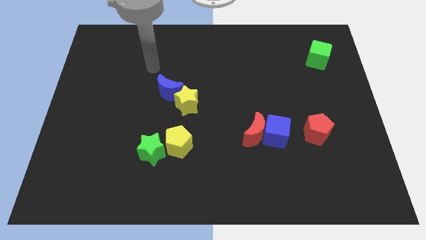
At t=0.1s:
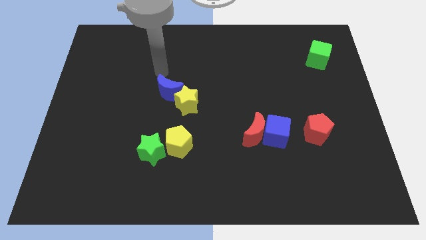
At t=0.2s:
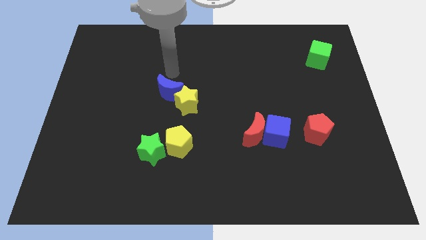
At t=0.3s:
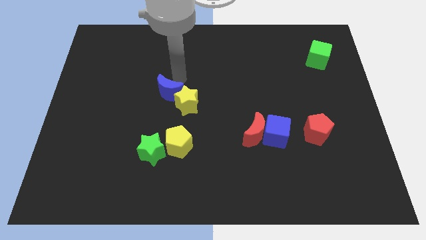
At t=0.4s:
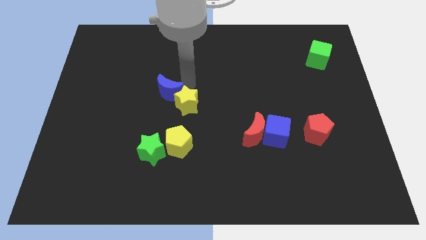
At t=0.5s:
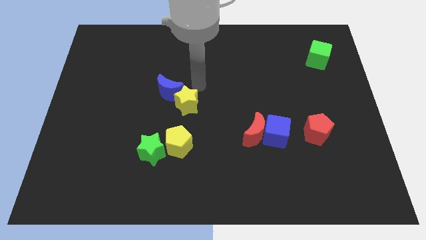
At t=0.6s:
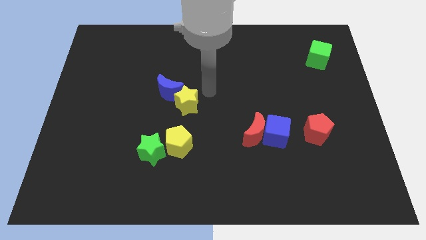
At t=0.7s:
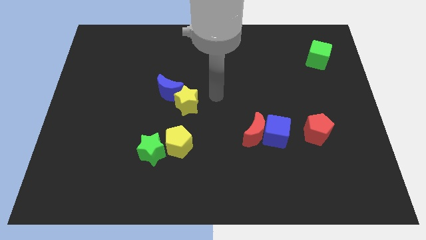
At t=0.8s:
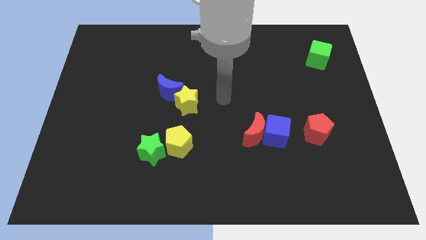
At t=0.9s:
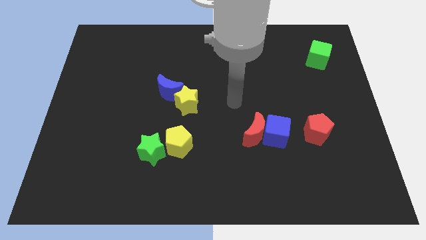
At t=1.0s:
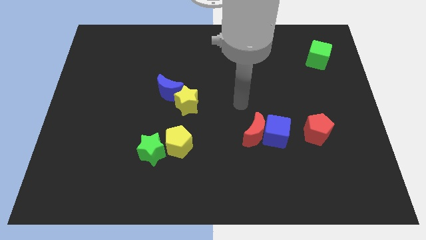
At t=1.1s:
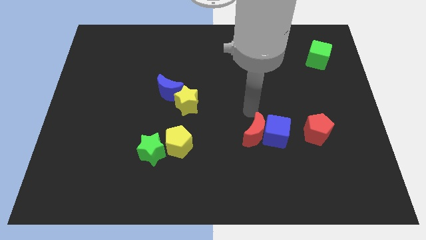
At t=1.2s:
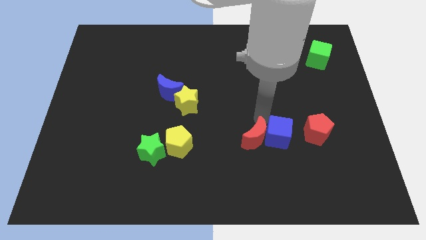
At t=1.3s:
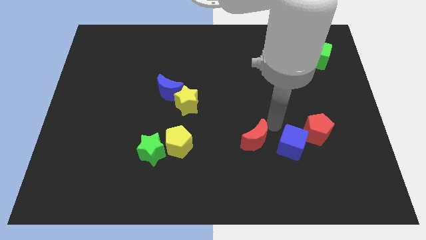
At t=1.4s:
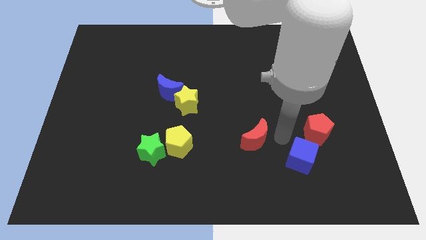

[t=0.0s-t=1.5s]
pull the red moon apart from the blue cube

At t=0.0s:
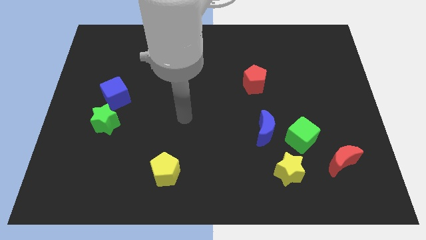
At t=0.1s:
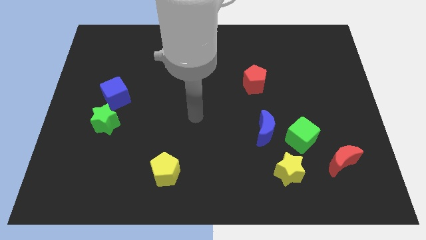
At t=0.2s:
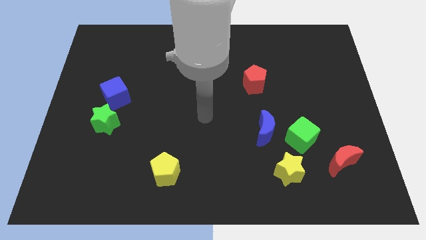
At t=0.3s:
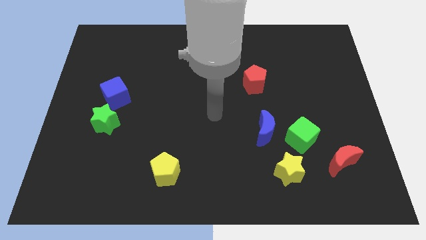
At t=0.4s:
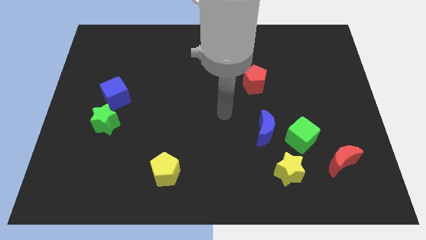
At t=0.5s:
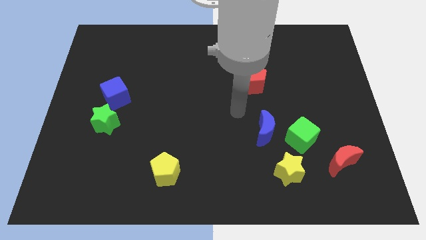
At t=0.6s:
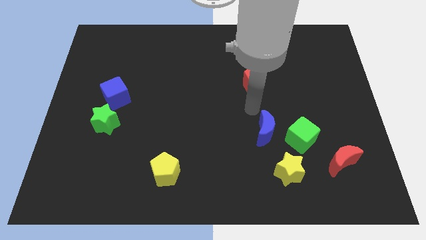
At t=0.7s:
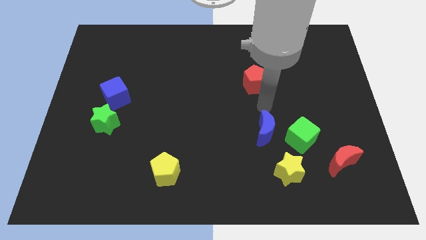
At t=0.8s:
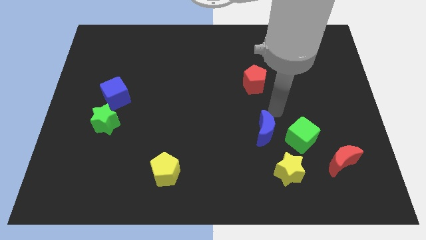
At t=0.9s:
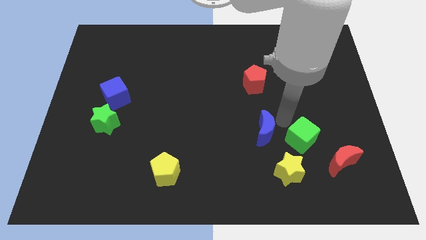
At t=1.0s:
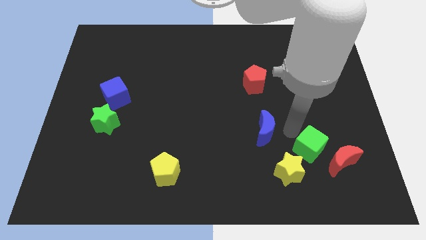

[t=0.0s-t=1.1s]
pull the blue moon apart from the green cube

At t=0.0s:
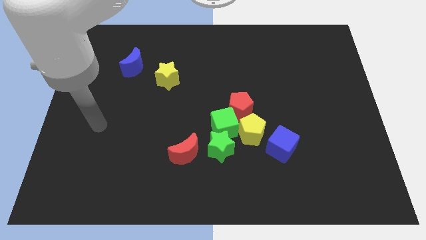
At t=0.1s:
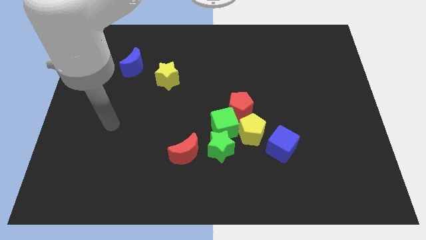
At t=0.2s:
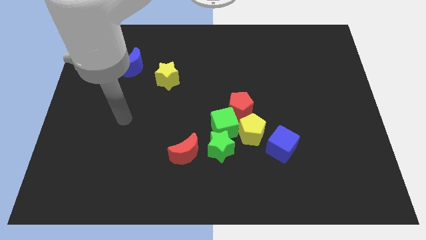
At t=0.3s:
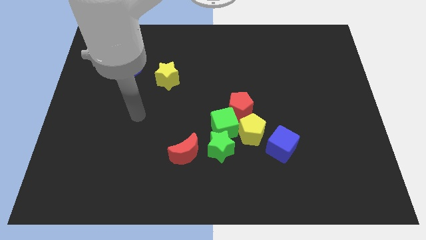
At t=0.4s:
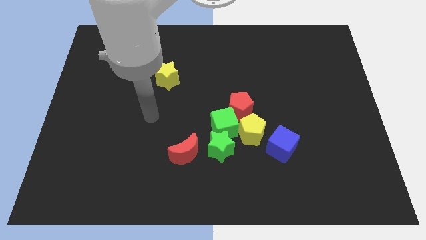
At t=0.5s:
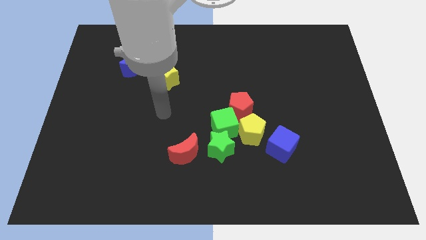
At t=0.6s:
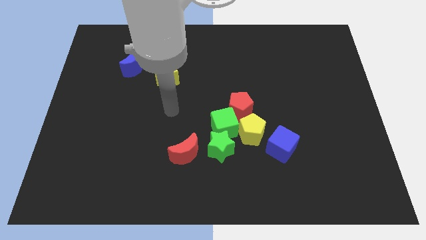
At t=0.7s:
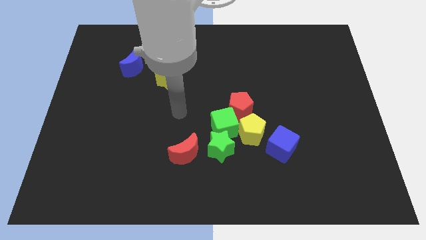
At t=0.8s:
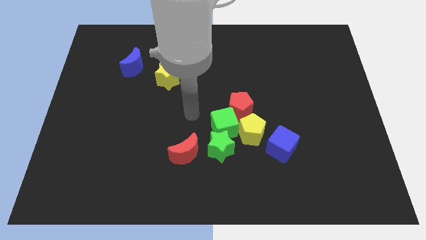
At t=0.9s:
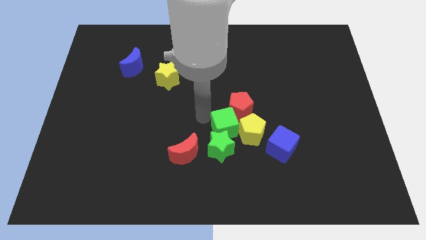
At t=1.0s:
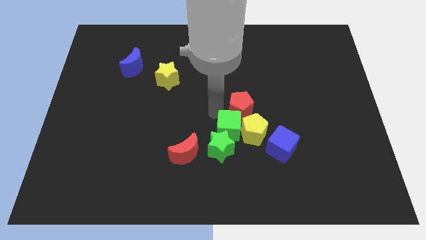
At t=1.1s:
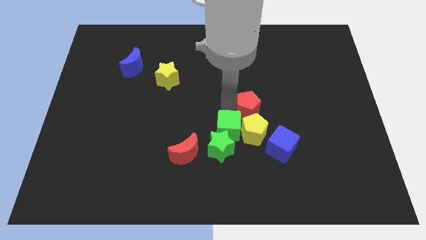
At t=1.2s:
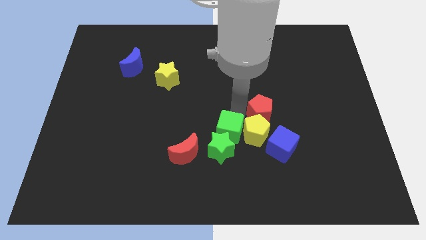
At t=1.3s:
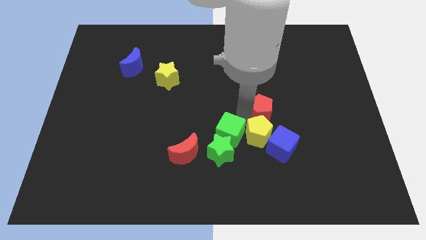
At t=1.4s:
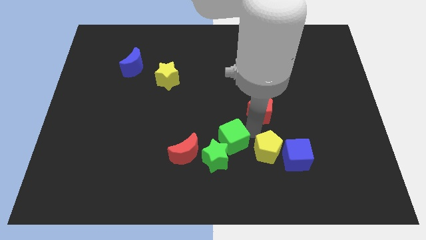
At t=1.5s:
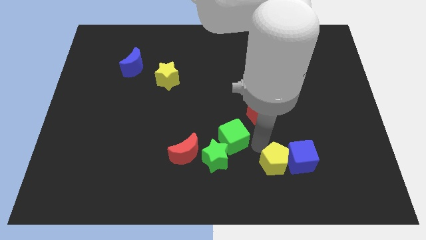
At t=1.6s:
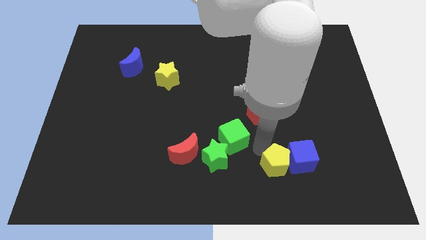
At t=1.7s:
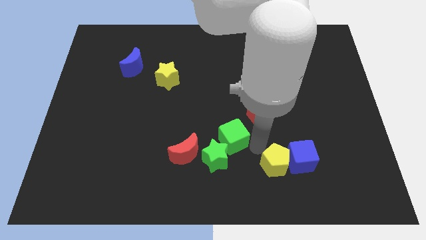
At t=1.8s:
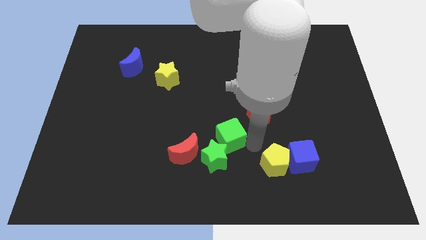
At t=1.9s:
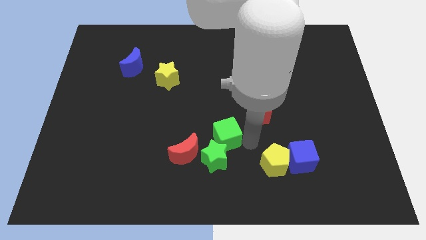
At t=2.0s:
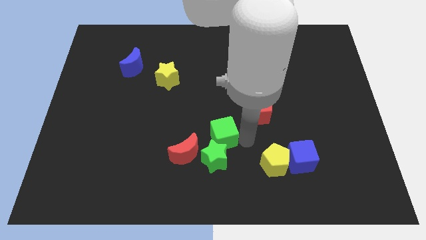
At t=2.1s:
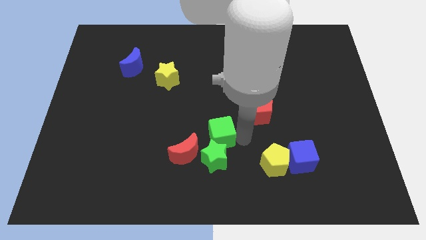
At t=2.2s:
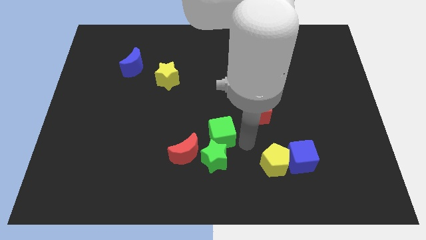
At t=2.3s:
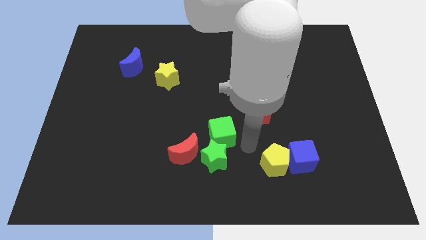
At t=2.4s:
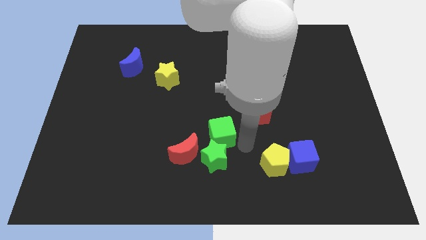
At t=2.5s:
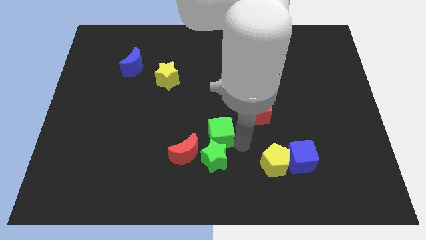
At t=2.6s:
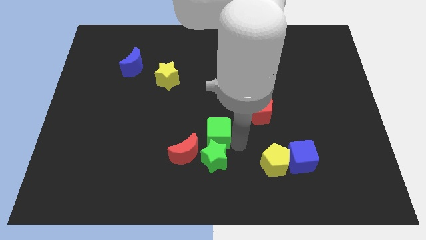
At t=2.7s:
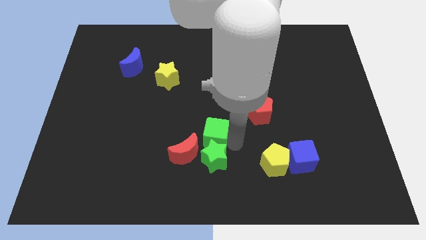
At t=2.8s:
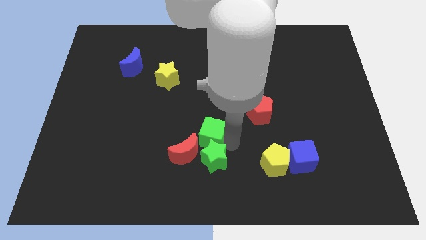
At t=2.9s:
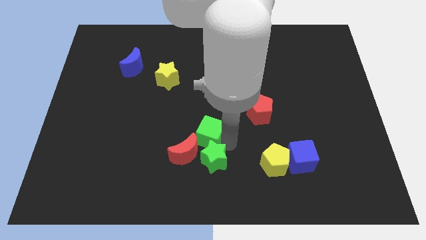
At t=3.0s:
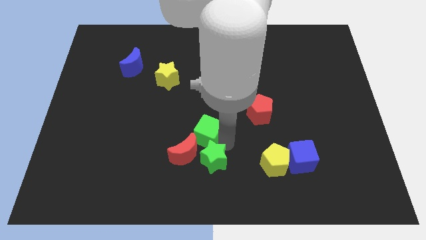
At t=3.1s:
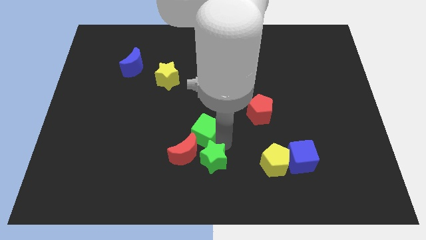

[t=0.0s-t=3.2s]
pull the green cube apart from the green star, yellow pentagon, and red pentagon

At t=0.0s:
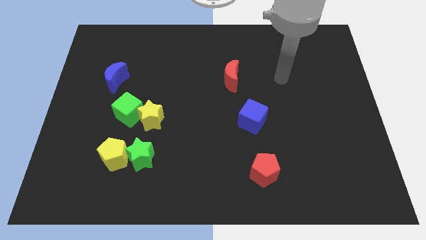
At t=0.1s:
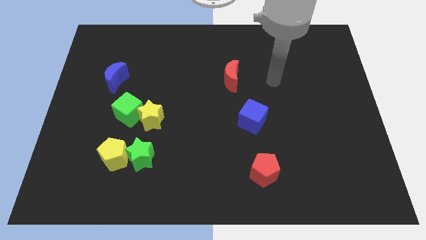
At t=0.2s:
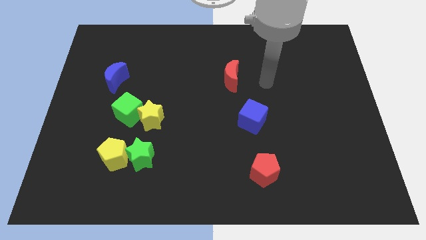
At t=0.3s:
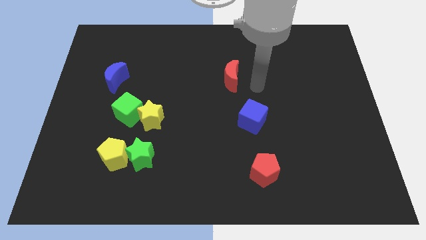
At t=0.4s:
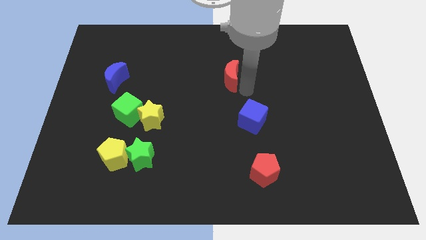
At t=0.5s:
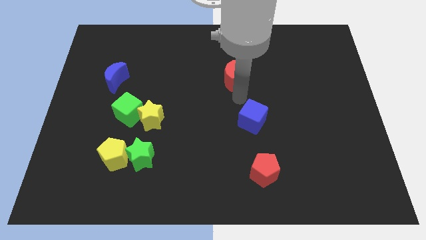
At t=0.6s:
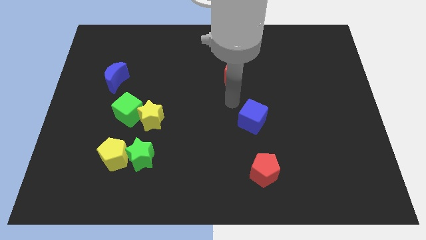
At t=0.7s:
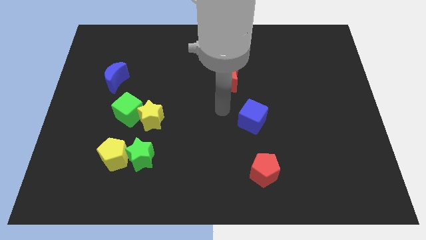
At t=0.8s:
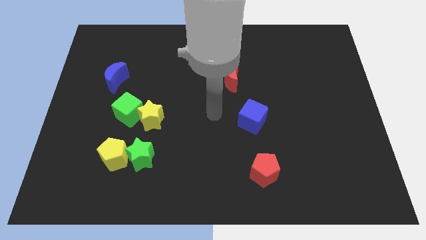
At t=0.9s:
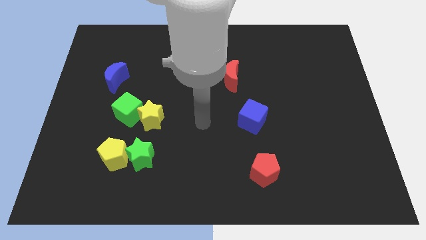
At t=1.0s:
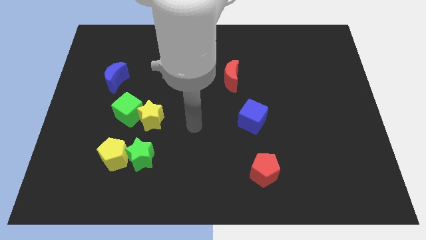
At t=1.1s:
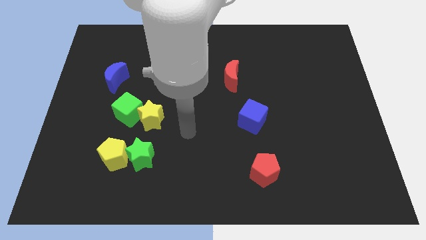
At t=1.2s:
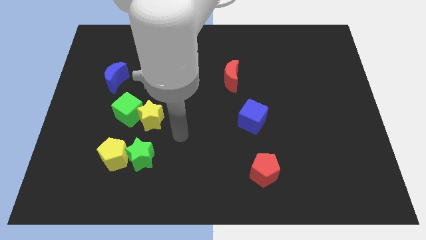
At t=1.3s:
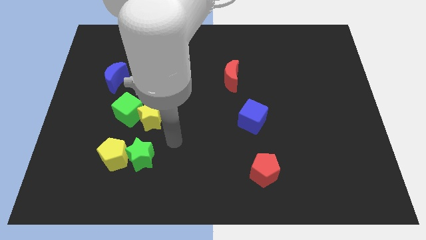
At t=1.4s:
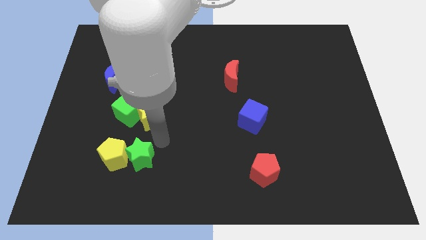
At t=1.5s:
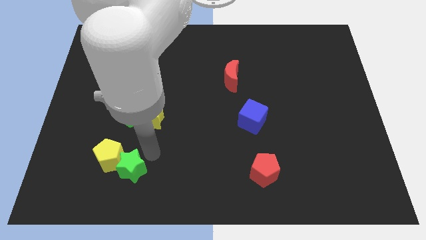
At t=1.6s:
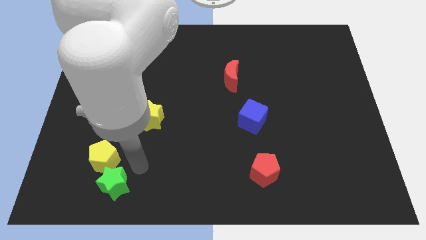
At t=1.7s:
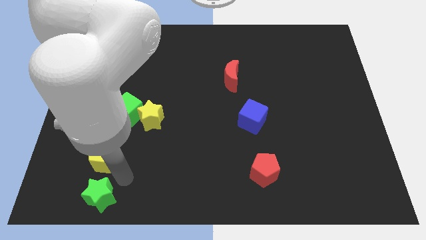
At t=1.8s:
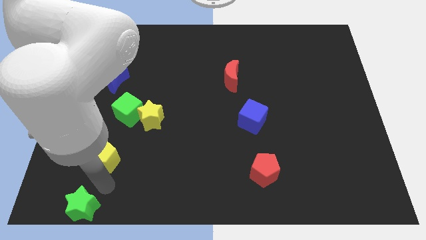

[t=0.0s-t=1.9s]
pull the yellow pentagon apart from the green star

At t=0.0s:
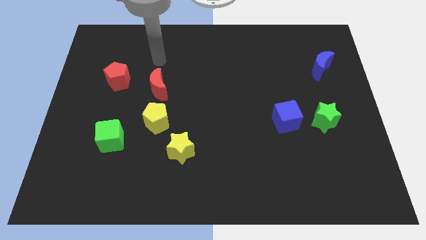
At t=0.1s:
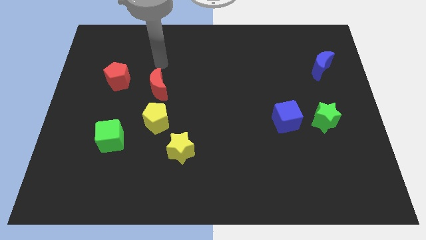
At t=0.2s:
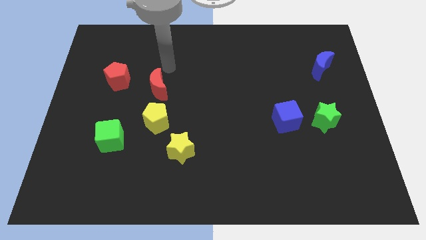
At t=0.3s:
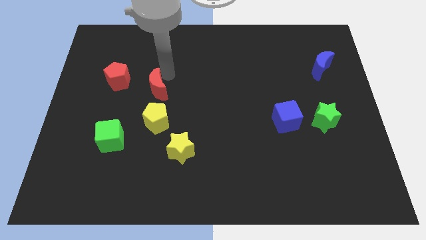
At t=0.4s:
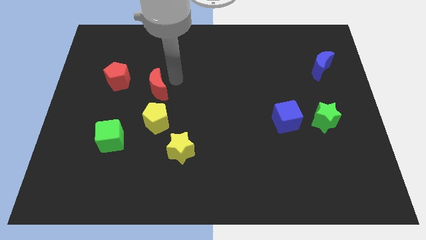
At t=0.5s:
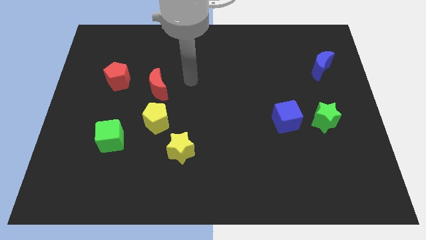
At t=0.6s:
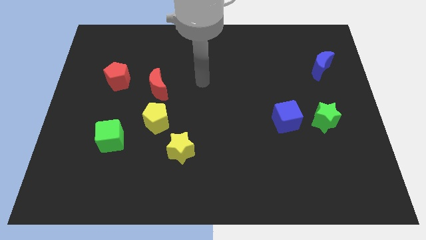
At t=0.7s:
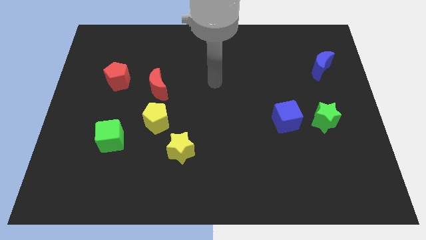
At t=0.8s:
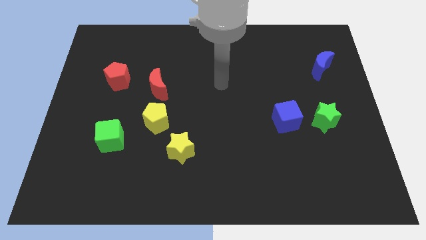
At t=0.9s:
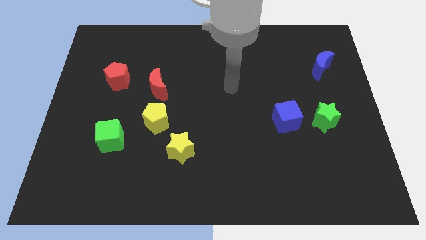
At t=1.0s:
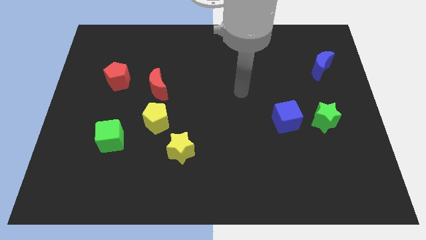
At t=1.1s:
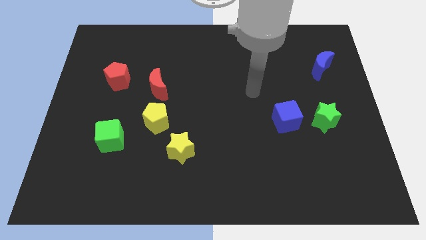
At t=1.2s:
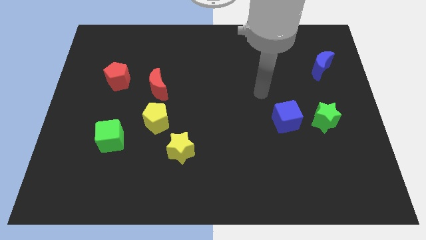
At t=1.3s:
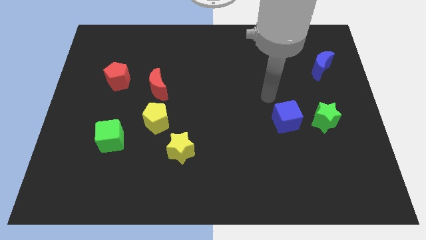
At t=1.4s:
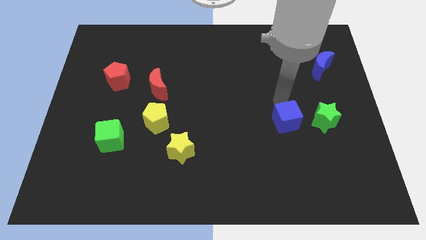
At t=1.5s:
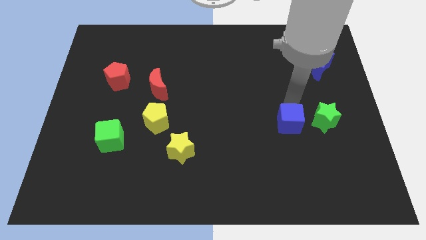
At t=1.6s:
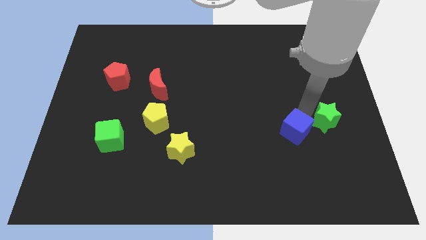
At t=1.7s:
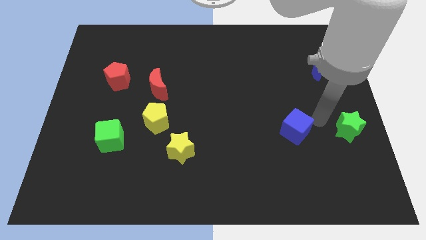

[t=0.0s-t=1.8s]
move the blue cube away from the green star
